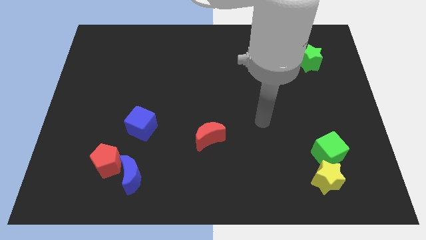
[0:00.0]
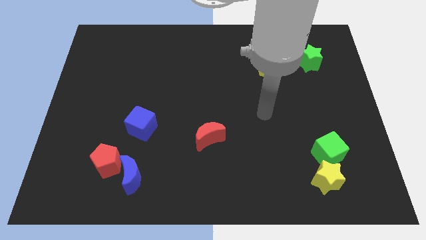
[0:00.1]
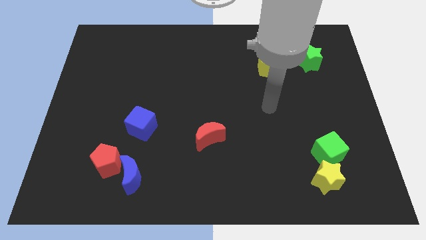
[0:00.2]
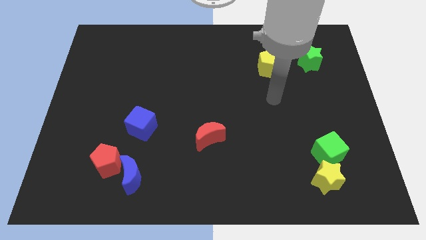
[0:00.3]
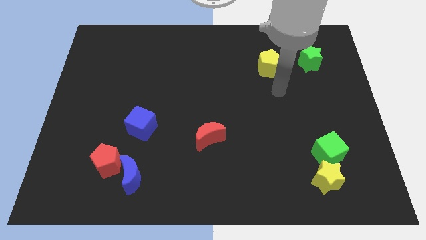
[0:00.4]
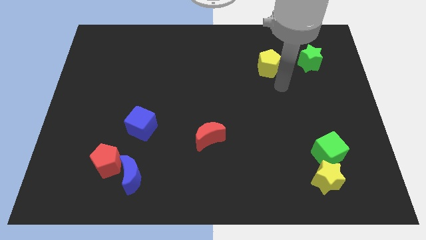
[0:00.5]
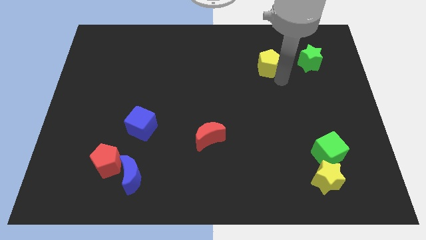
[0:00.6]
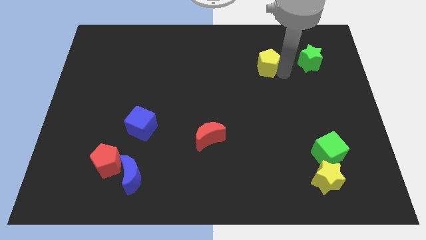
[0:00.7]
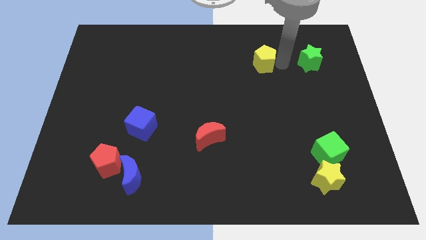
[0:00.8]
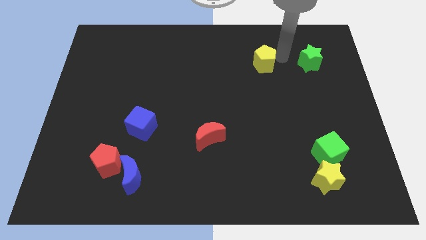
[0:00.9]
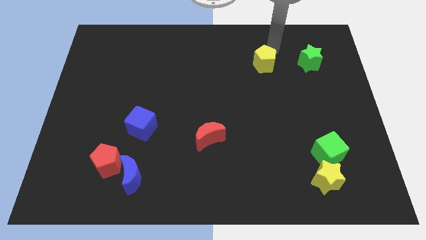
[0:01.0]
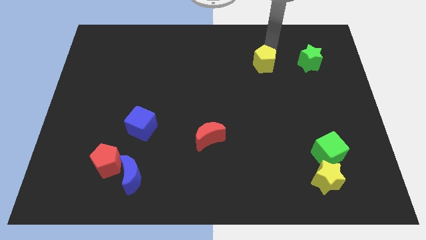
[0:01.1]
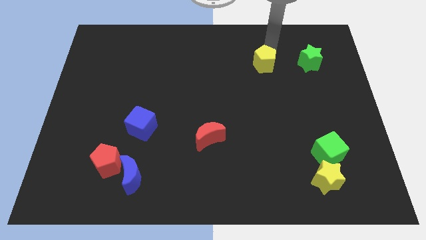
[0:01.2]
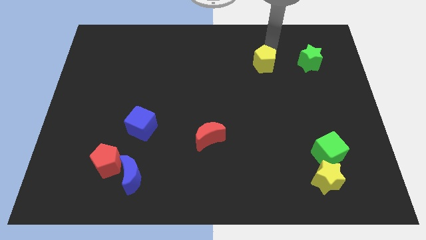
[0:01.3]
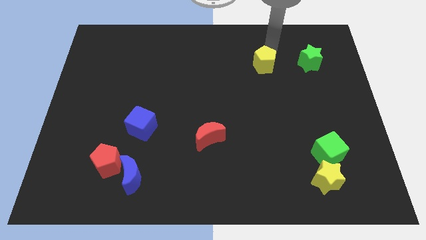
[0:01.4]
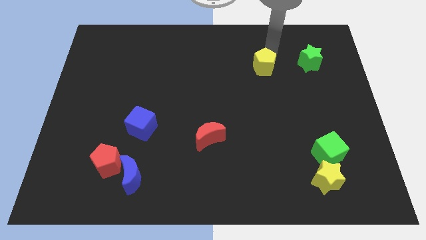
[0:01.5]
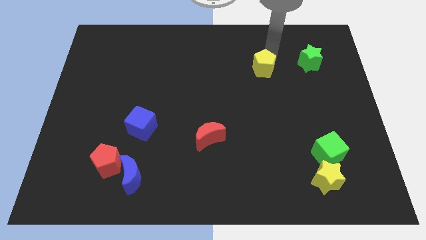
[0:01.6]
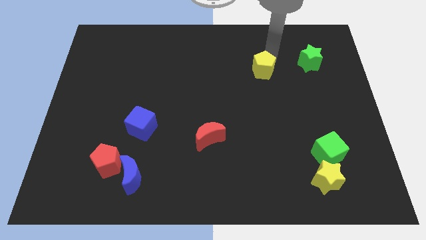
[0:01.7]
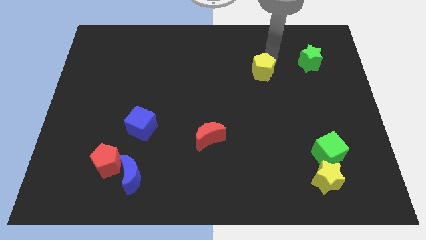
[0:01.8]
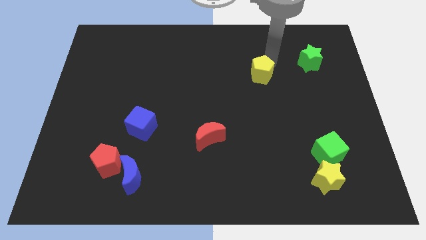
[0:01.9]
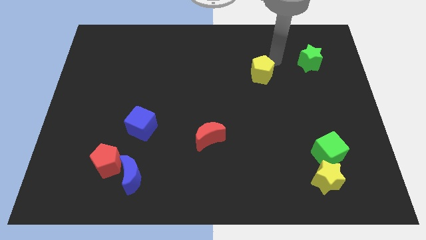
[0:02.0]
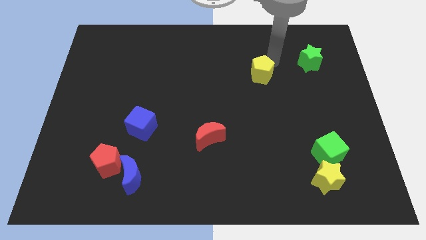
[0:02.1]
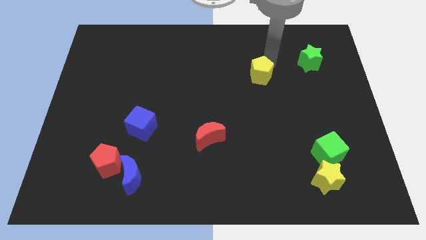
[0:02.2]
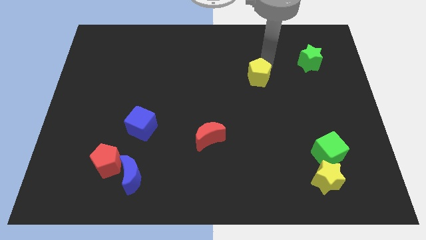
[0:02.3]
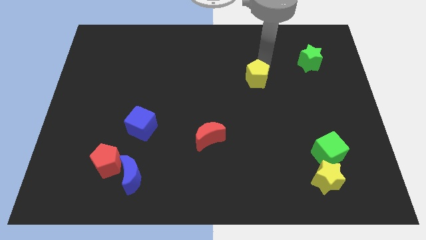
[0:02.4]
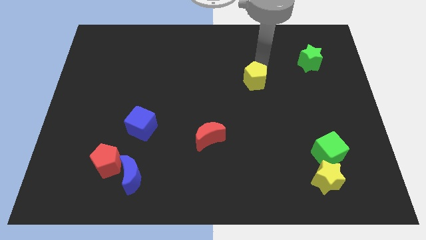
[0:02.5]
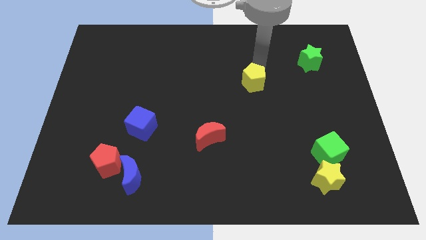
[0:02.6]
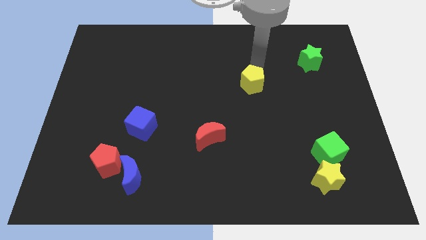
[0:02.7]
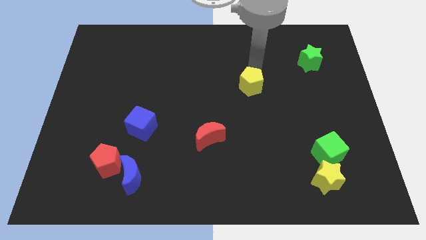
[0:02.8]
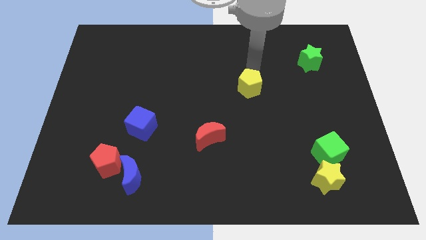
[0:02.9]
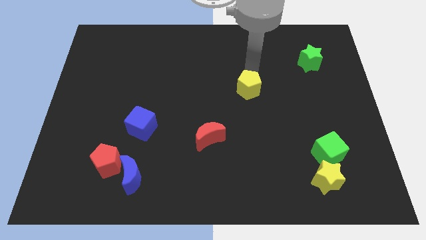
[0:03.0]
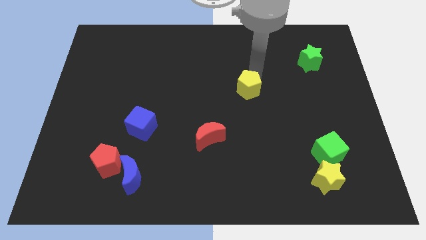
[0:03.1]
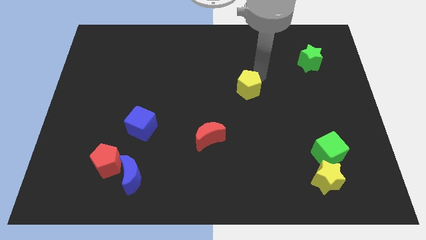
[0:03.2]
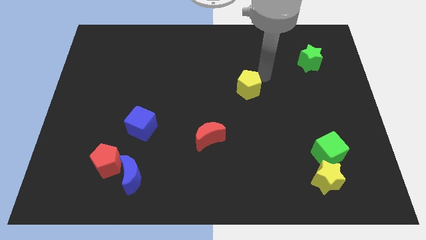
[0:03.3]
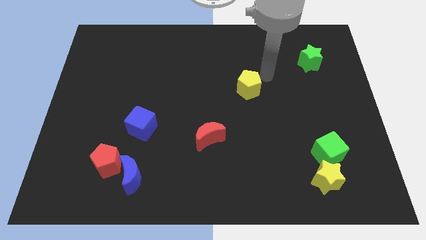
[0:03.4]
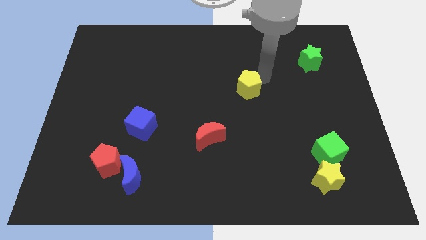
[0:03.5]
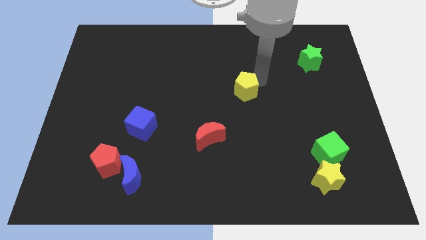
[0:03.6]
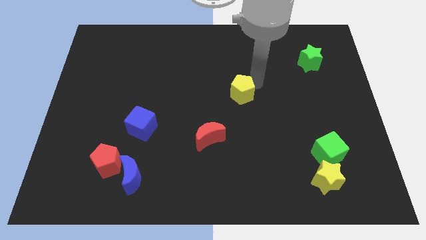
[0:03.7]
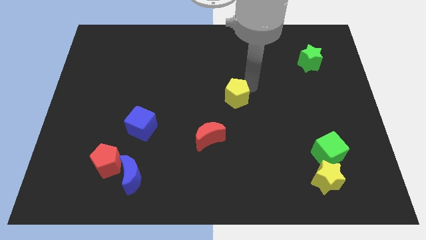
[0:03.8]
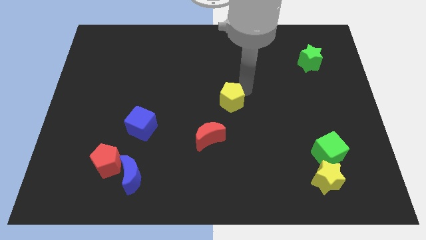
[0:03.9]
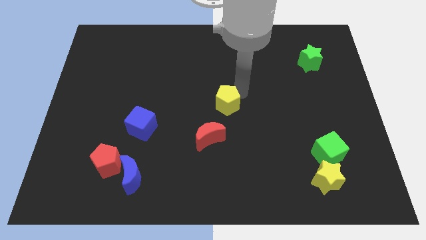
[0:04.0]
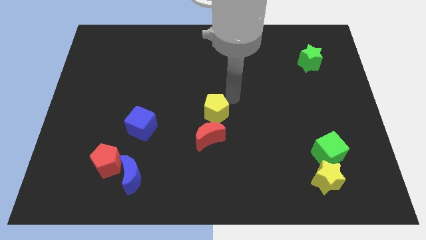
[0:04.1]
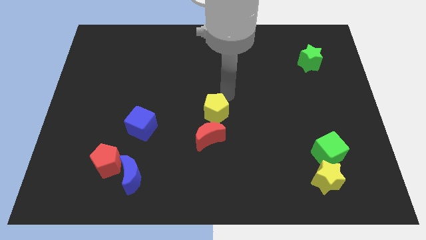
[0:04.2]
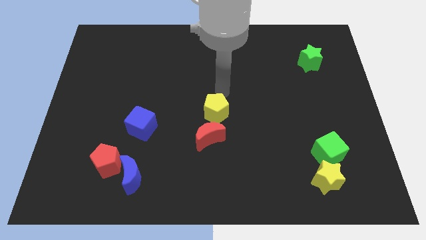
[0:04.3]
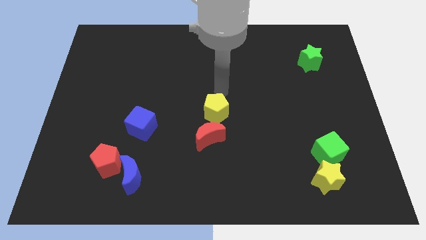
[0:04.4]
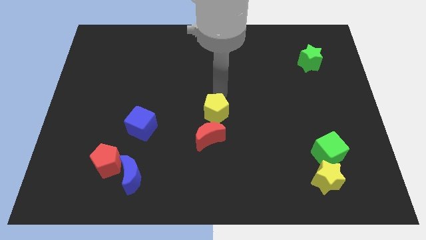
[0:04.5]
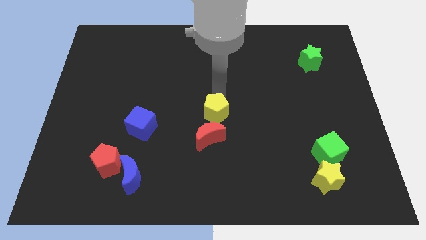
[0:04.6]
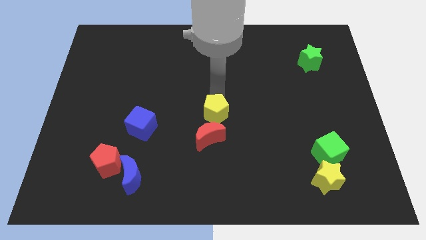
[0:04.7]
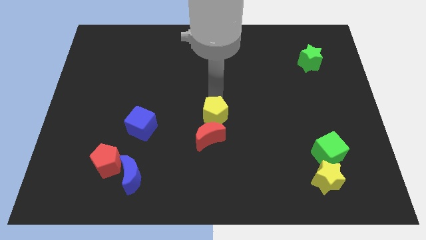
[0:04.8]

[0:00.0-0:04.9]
push the yellow pentagon to the red moon

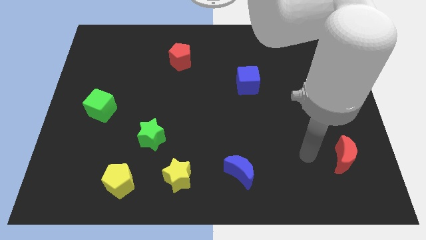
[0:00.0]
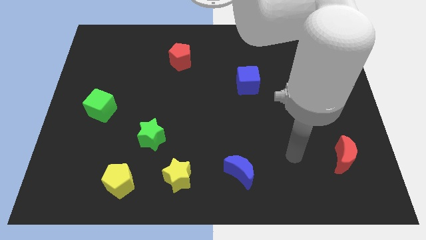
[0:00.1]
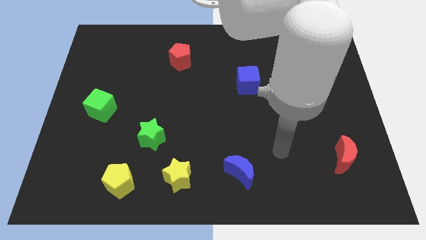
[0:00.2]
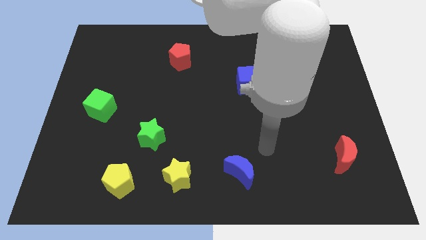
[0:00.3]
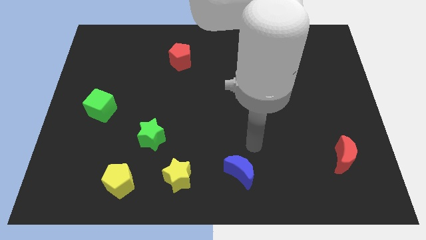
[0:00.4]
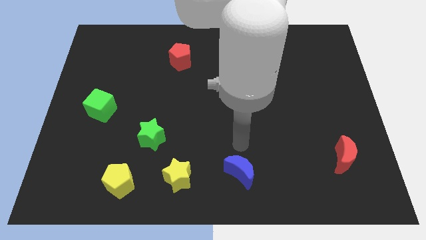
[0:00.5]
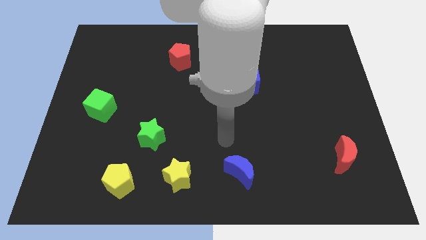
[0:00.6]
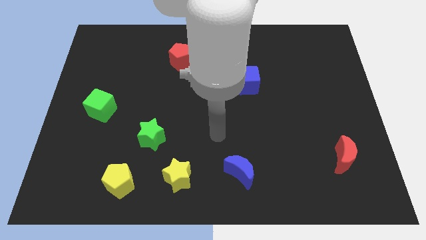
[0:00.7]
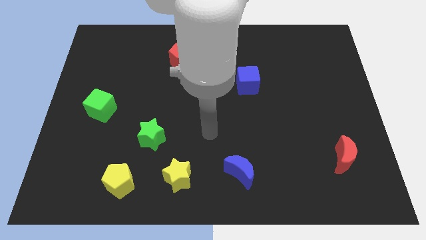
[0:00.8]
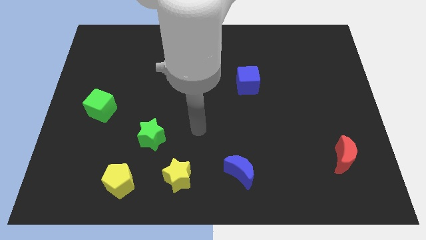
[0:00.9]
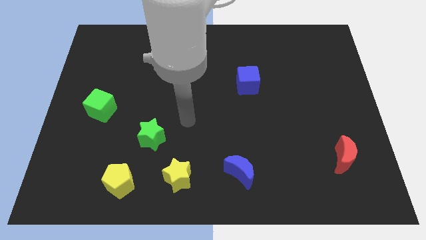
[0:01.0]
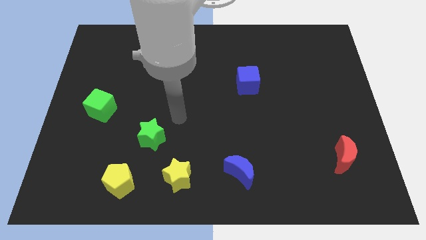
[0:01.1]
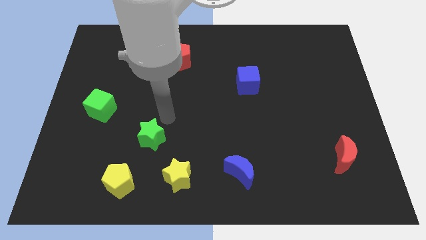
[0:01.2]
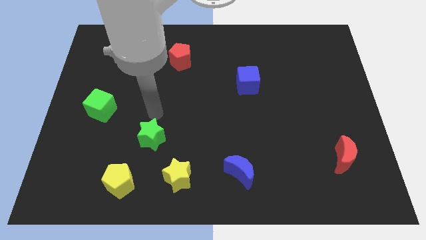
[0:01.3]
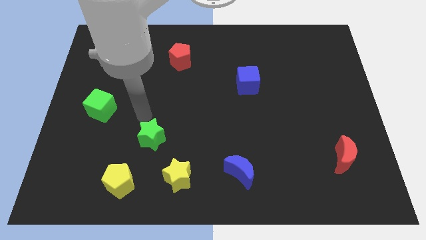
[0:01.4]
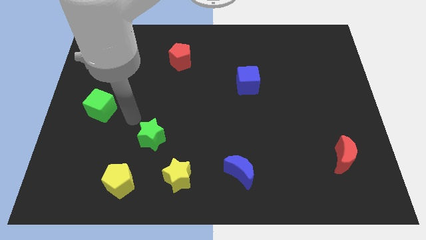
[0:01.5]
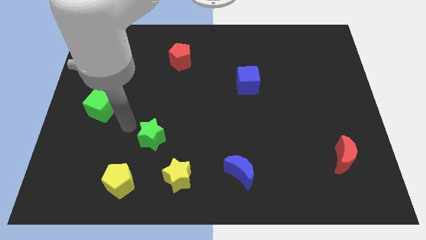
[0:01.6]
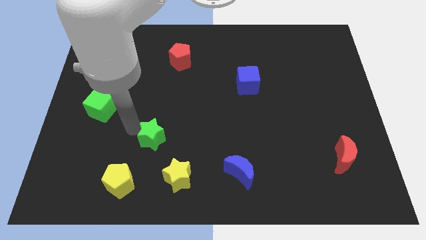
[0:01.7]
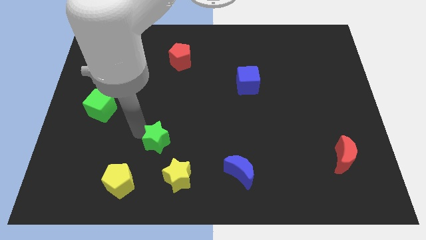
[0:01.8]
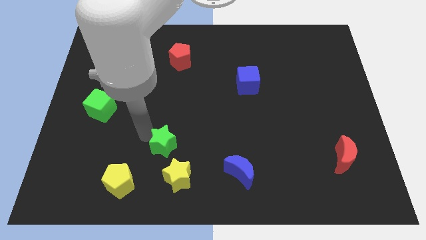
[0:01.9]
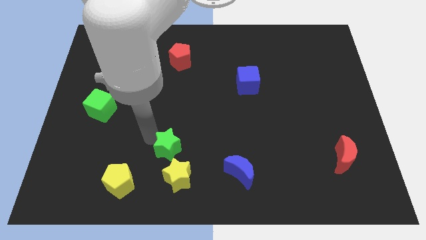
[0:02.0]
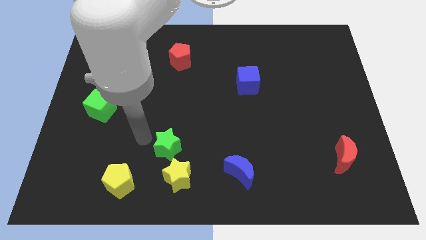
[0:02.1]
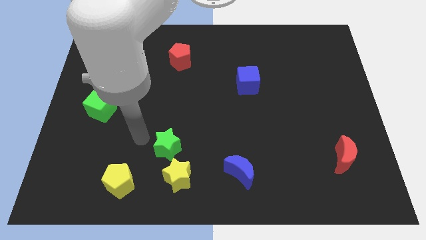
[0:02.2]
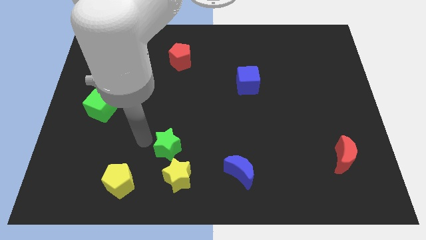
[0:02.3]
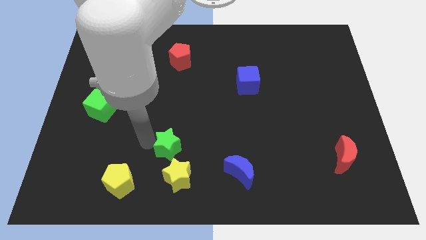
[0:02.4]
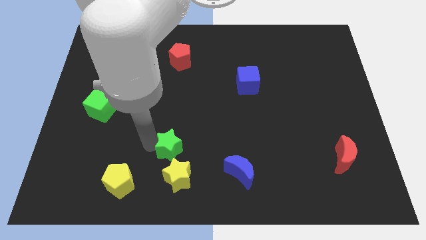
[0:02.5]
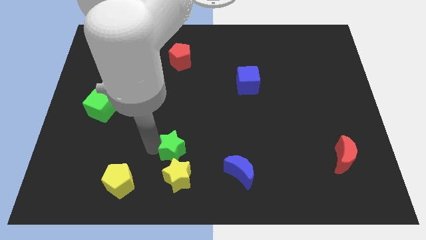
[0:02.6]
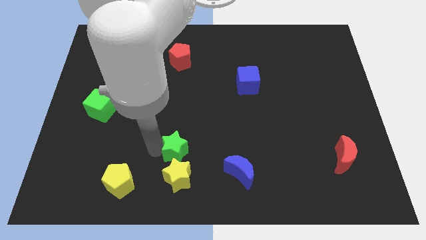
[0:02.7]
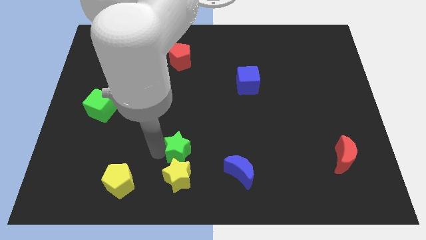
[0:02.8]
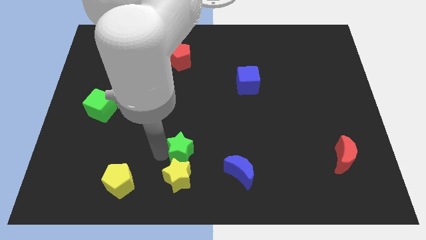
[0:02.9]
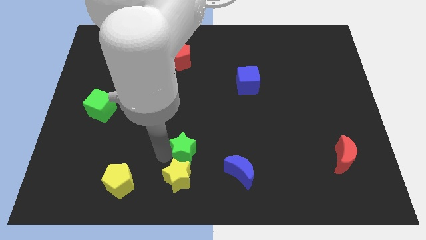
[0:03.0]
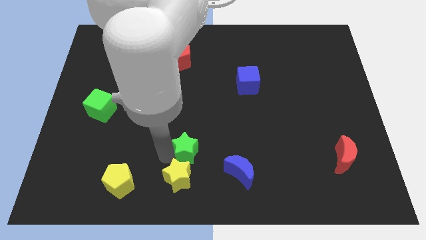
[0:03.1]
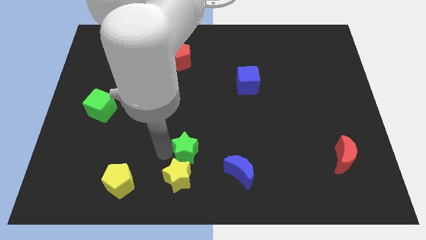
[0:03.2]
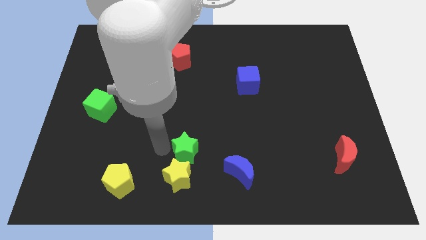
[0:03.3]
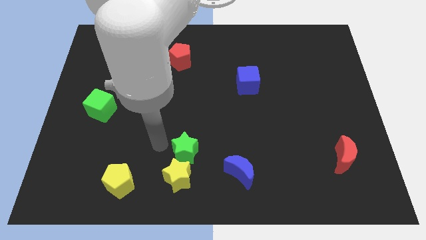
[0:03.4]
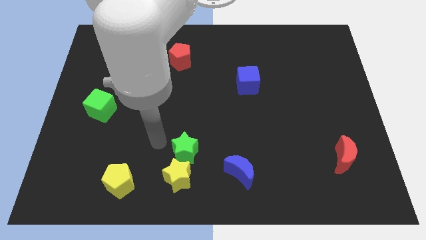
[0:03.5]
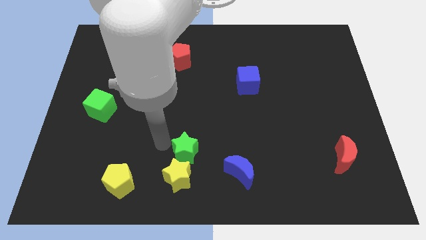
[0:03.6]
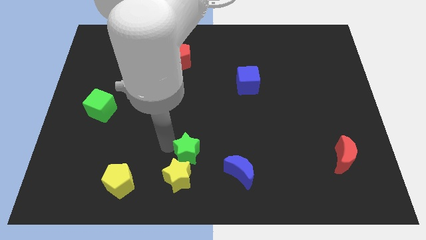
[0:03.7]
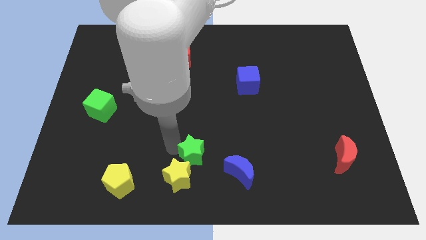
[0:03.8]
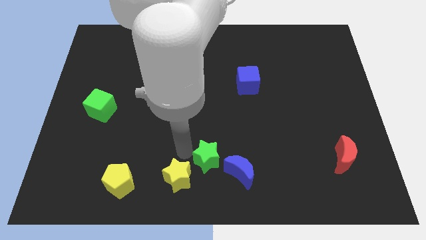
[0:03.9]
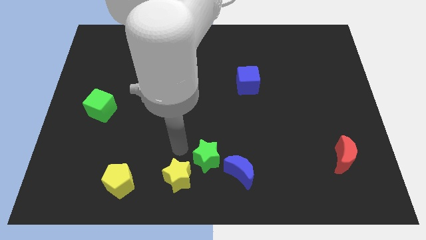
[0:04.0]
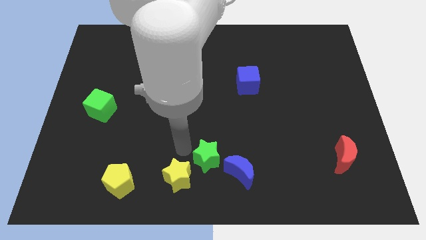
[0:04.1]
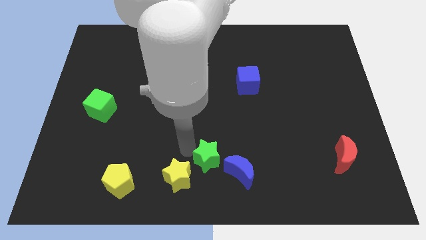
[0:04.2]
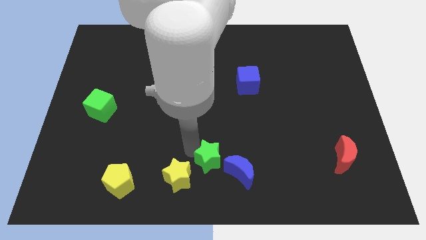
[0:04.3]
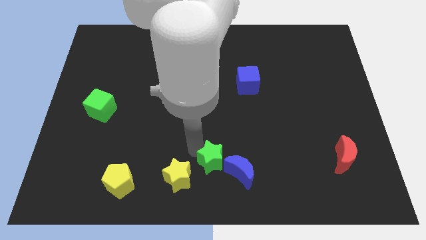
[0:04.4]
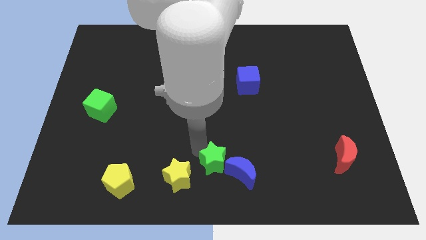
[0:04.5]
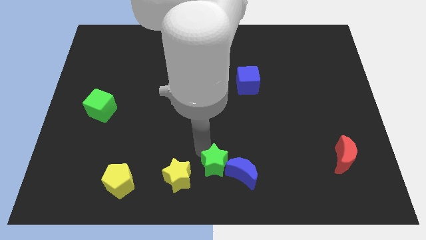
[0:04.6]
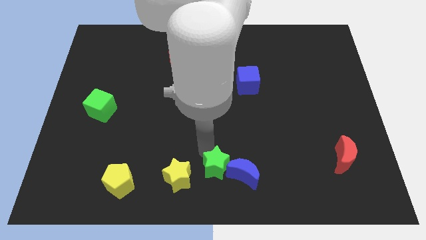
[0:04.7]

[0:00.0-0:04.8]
put the green star towards the blue moon
